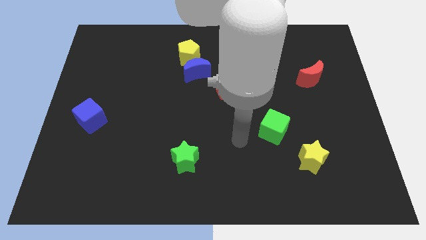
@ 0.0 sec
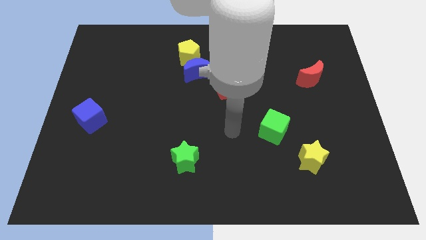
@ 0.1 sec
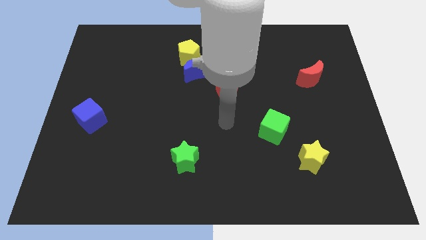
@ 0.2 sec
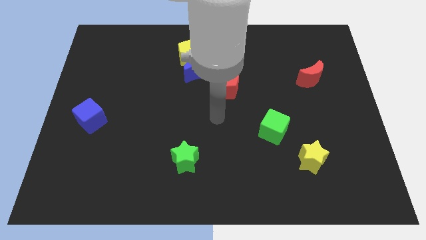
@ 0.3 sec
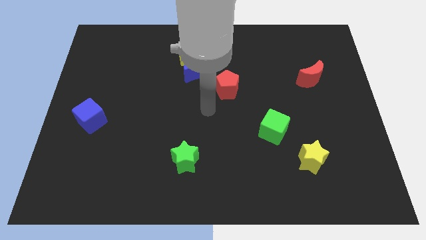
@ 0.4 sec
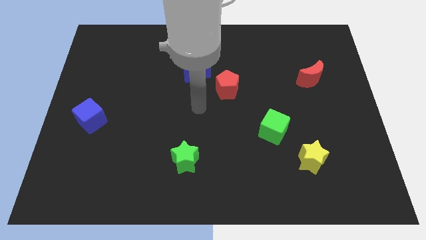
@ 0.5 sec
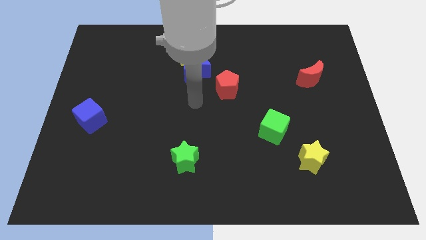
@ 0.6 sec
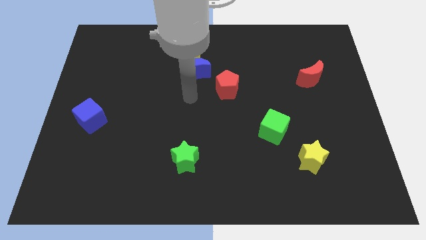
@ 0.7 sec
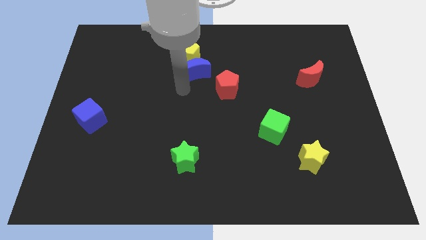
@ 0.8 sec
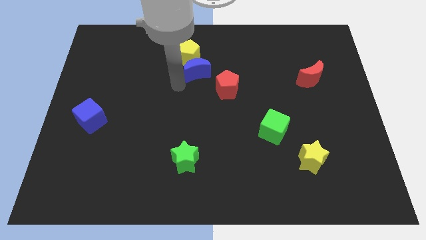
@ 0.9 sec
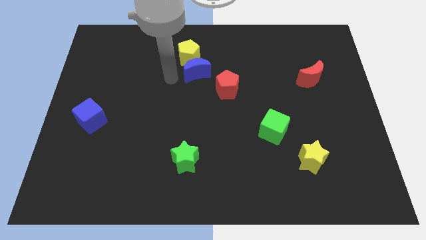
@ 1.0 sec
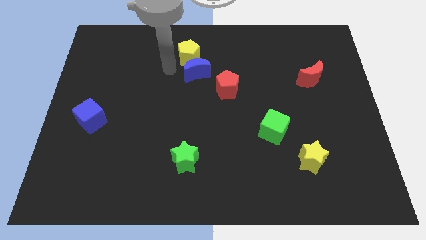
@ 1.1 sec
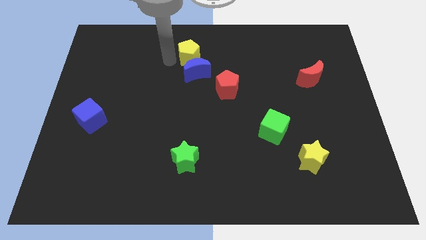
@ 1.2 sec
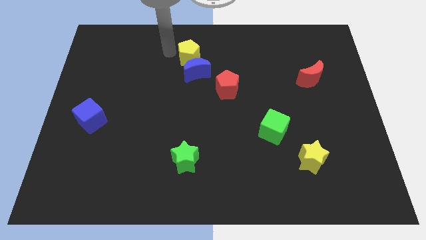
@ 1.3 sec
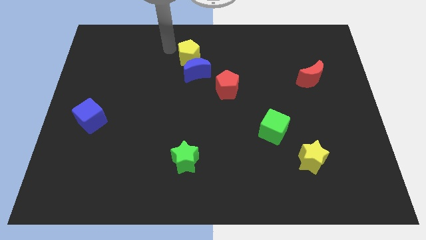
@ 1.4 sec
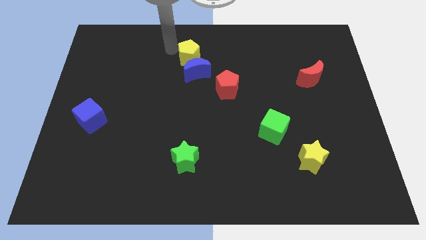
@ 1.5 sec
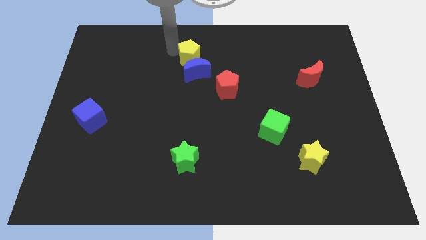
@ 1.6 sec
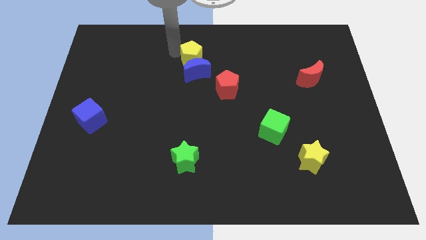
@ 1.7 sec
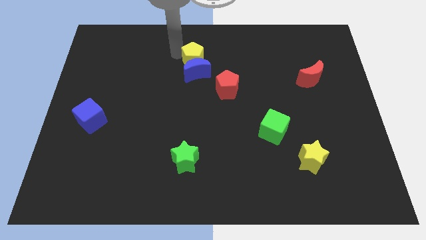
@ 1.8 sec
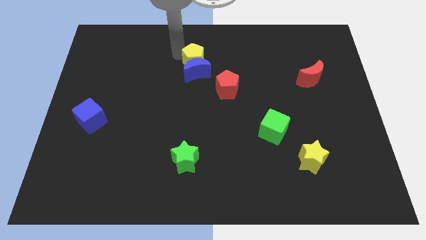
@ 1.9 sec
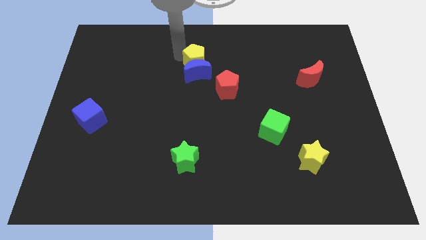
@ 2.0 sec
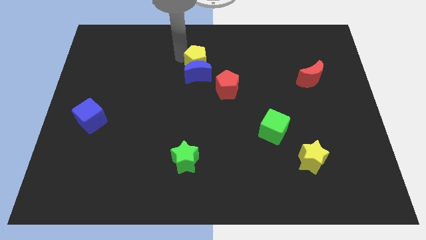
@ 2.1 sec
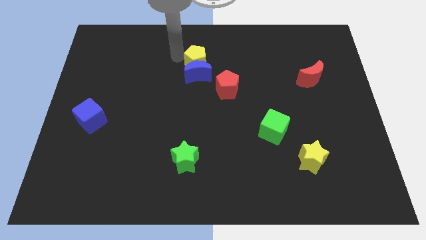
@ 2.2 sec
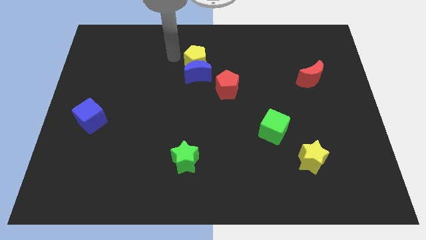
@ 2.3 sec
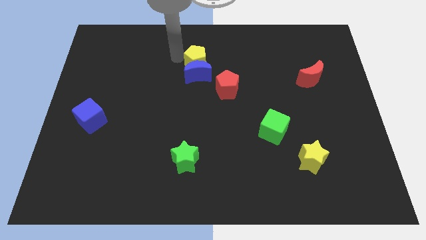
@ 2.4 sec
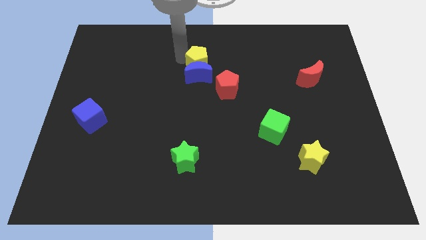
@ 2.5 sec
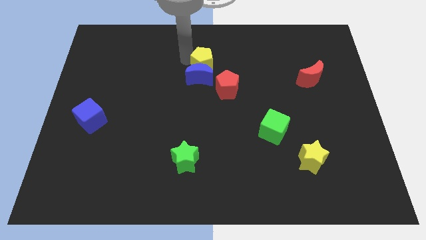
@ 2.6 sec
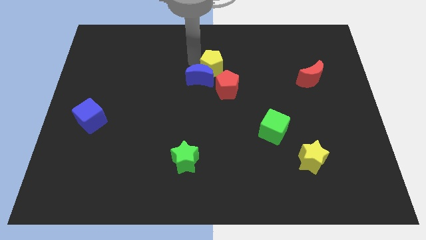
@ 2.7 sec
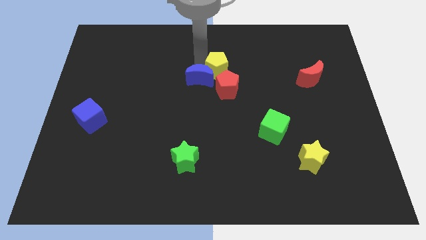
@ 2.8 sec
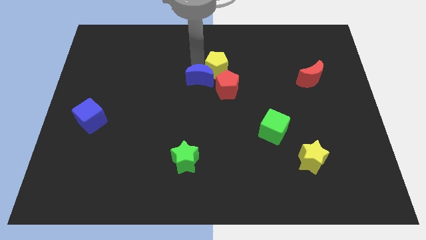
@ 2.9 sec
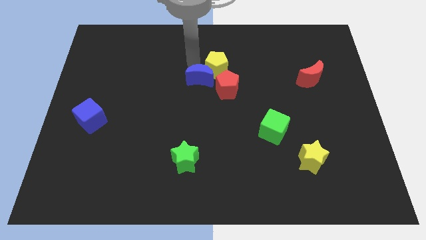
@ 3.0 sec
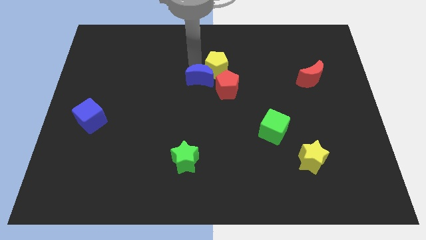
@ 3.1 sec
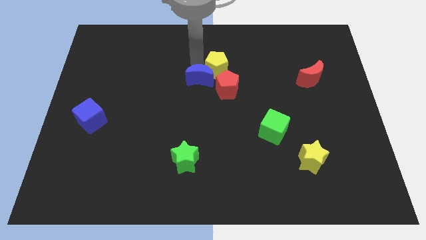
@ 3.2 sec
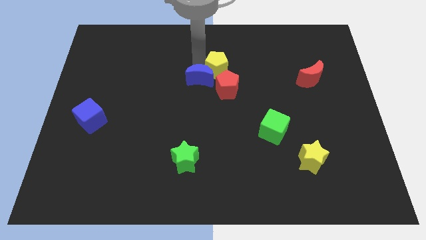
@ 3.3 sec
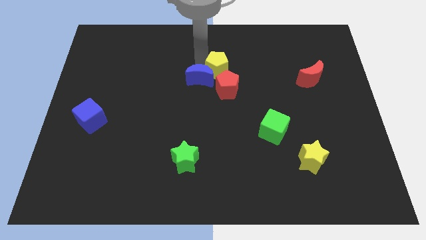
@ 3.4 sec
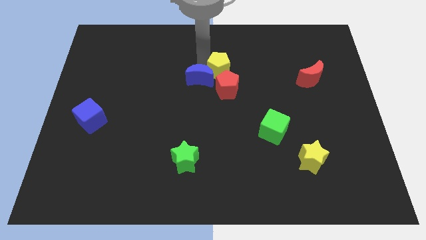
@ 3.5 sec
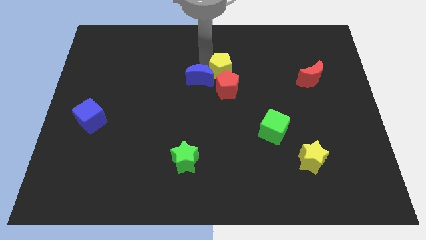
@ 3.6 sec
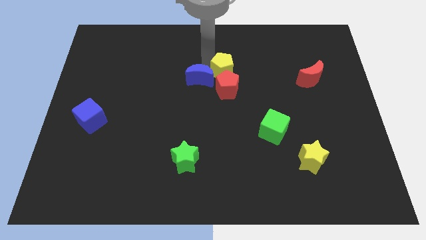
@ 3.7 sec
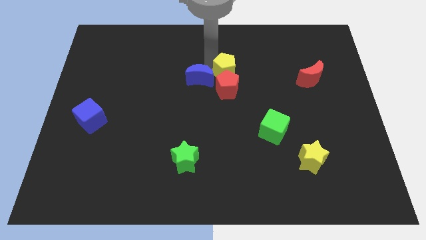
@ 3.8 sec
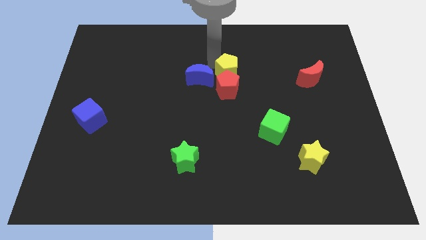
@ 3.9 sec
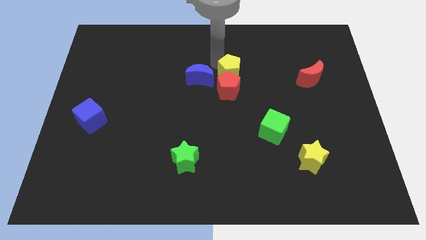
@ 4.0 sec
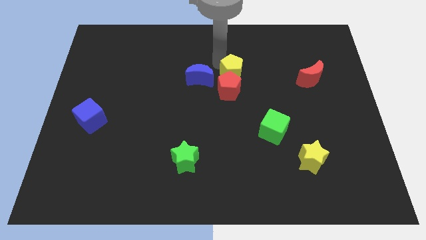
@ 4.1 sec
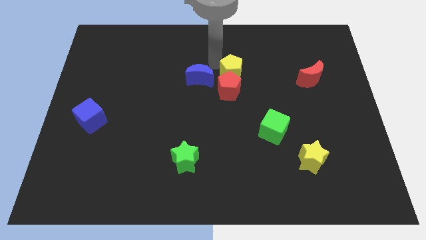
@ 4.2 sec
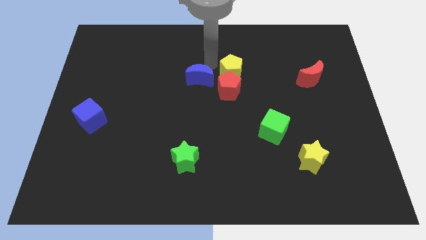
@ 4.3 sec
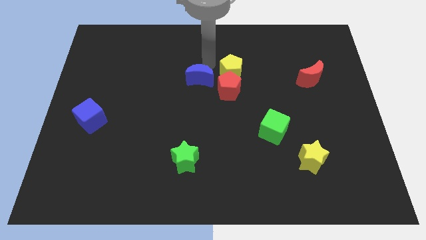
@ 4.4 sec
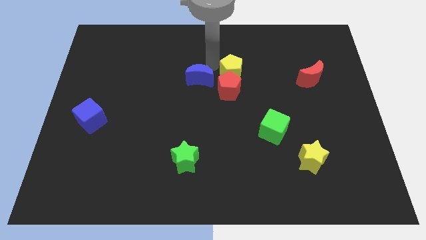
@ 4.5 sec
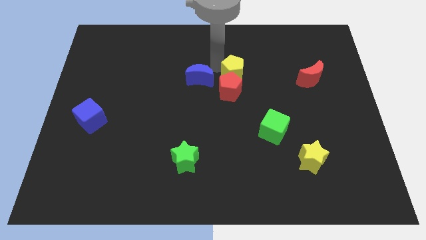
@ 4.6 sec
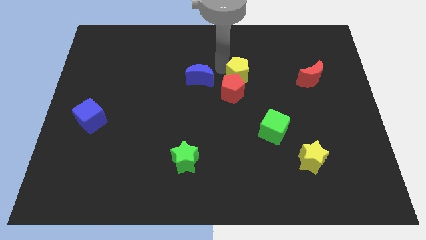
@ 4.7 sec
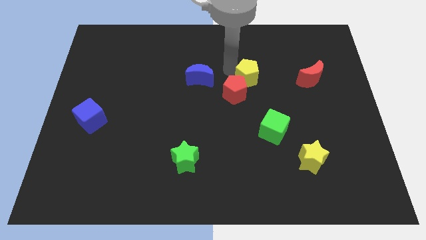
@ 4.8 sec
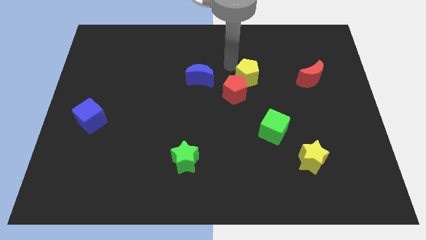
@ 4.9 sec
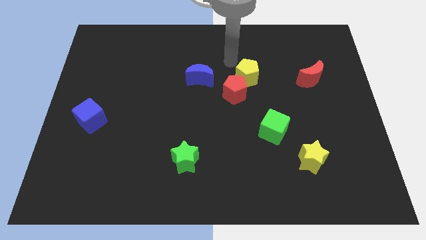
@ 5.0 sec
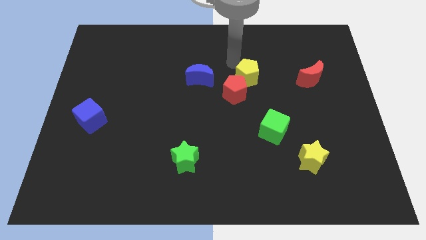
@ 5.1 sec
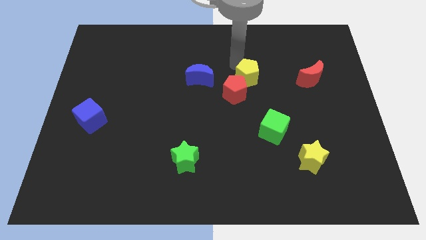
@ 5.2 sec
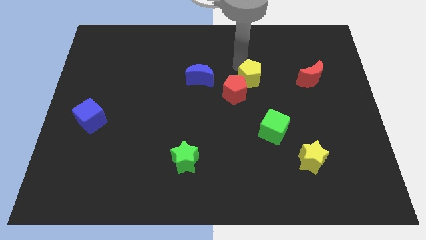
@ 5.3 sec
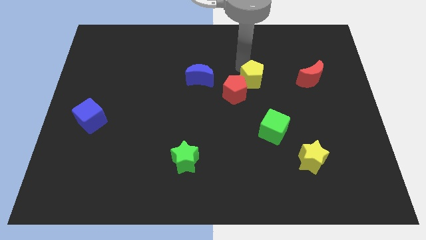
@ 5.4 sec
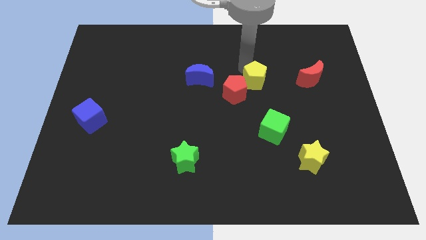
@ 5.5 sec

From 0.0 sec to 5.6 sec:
push the yellow pentagon to the top side of the green cube

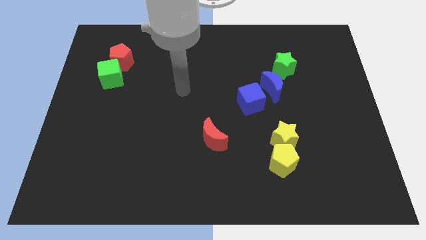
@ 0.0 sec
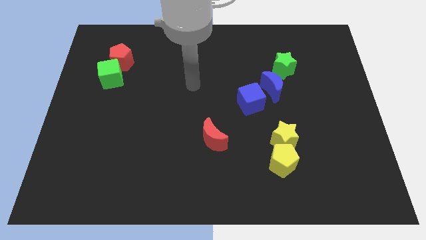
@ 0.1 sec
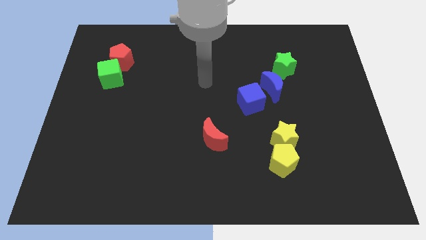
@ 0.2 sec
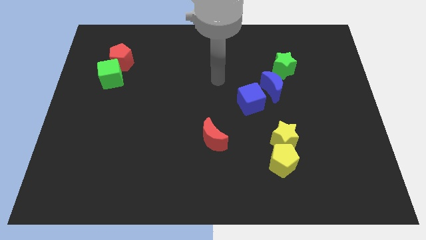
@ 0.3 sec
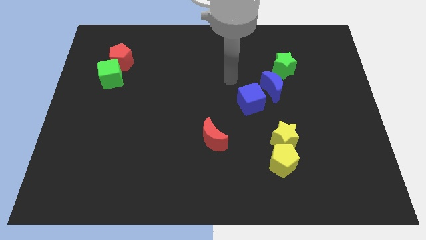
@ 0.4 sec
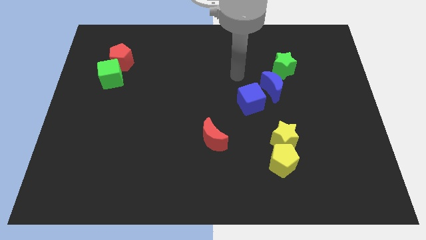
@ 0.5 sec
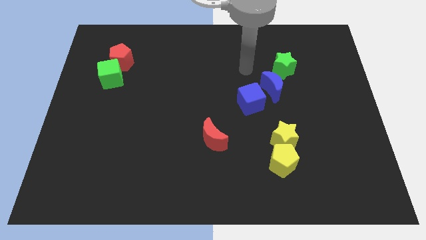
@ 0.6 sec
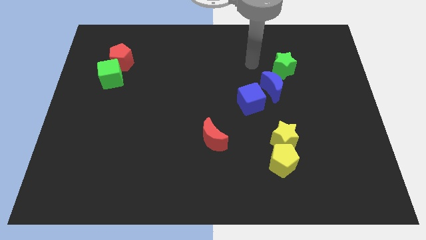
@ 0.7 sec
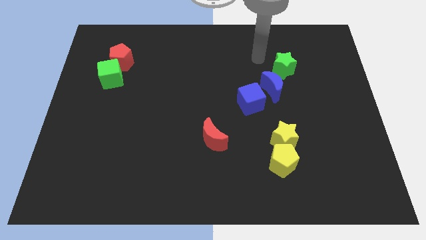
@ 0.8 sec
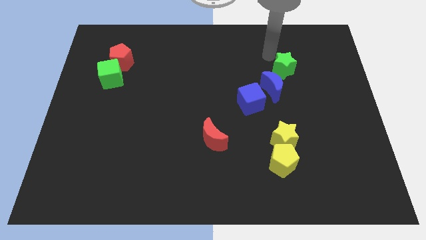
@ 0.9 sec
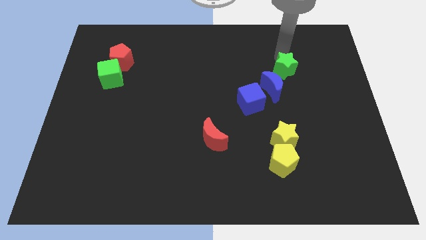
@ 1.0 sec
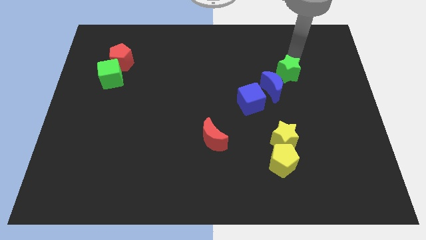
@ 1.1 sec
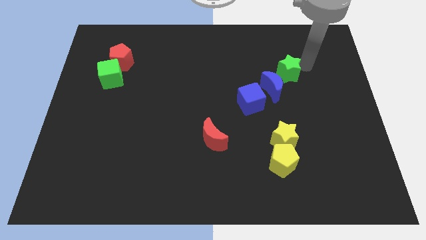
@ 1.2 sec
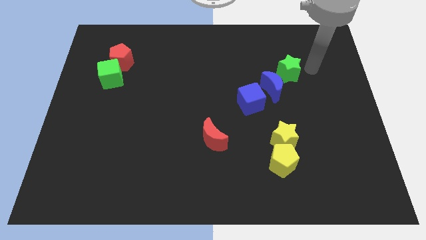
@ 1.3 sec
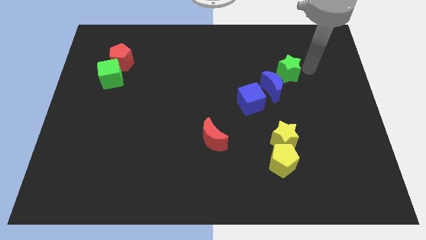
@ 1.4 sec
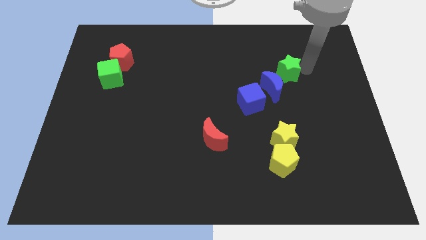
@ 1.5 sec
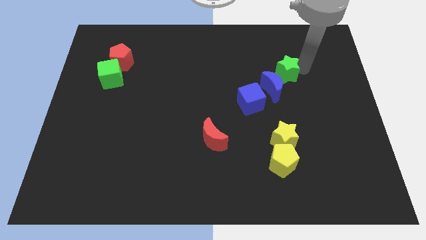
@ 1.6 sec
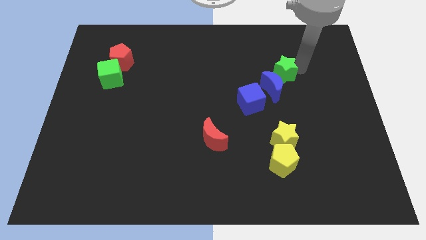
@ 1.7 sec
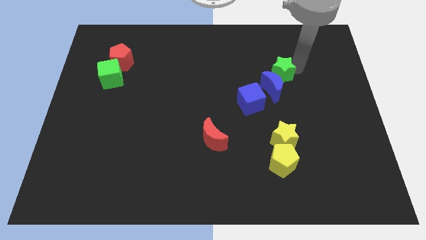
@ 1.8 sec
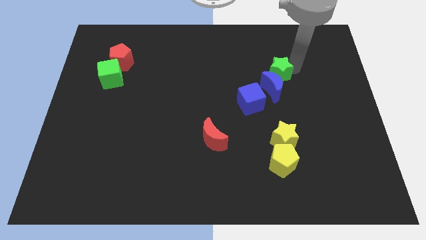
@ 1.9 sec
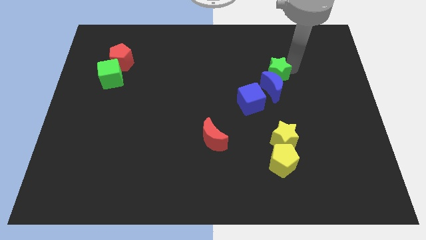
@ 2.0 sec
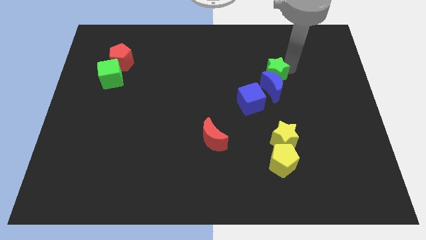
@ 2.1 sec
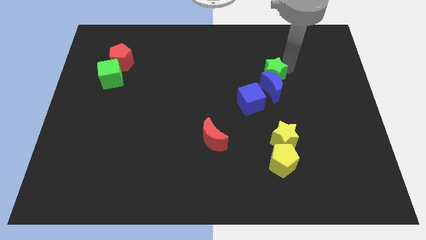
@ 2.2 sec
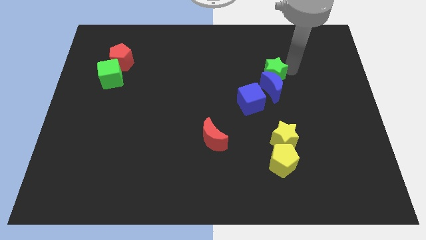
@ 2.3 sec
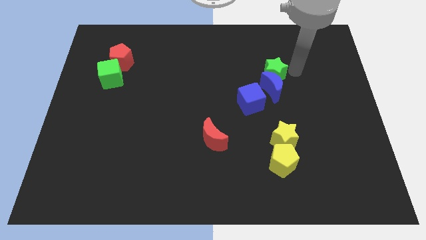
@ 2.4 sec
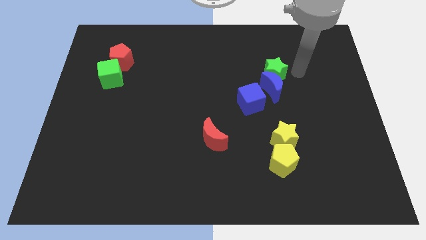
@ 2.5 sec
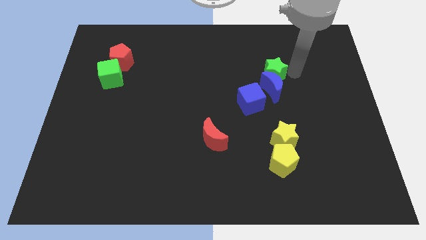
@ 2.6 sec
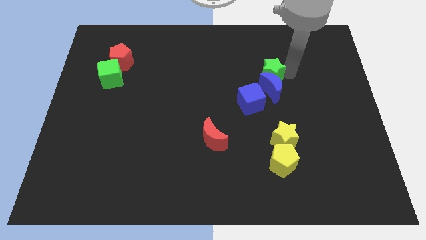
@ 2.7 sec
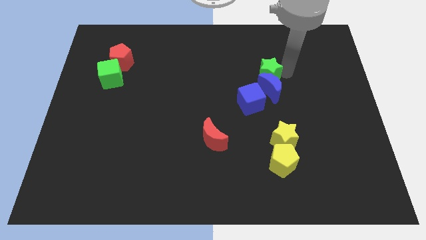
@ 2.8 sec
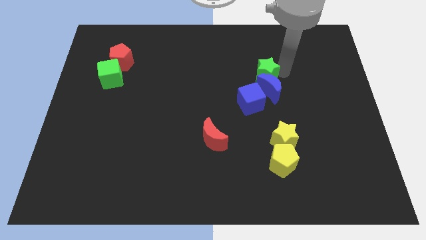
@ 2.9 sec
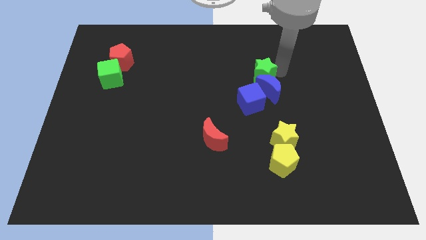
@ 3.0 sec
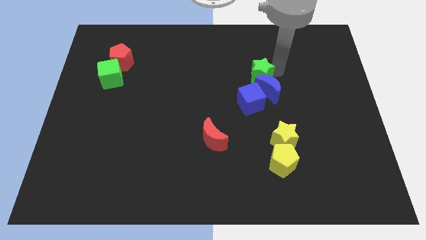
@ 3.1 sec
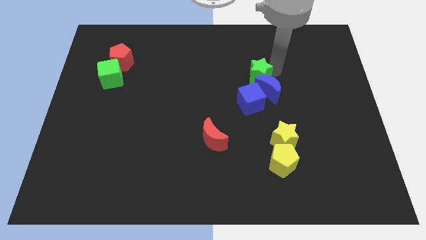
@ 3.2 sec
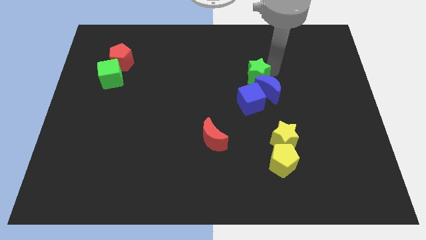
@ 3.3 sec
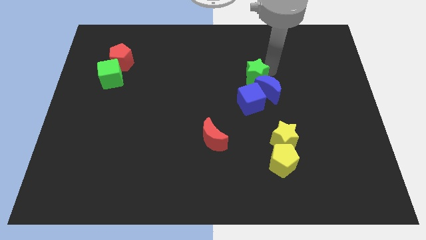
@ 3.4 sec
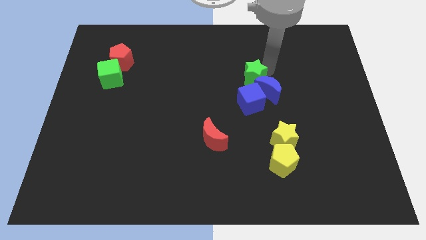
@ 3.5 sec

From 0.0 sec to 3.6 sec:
move the green star just left of the blue moon
